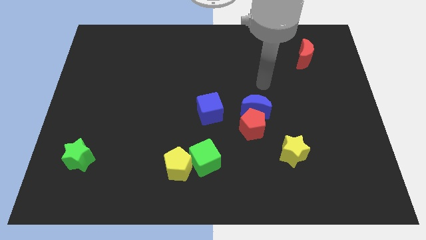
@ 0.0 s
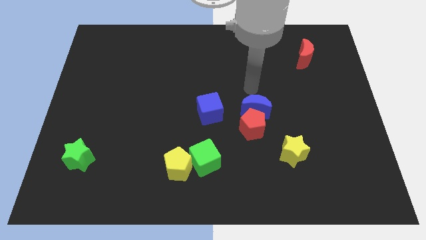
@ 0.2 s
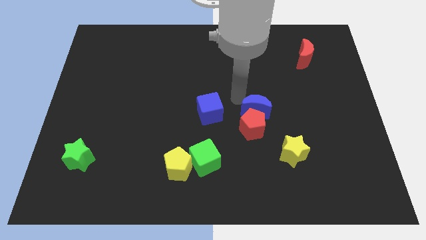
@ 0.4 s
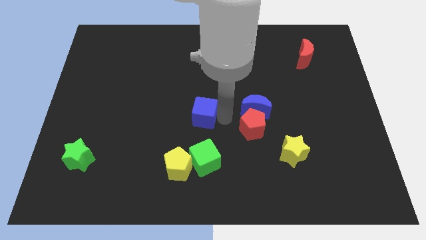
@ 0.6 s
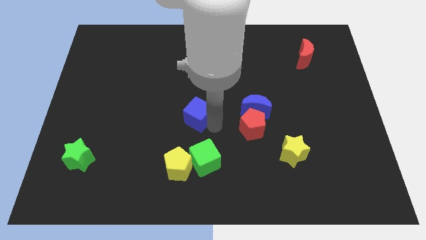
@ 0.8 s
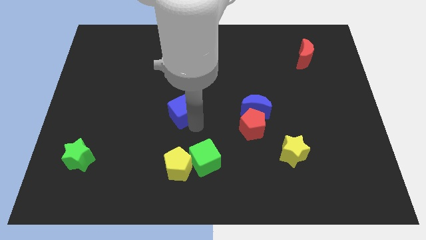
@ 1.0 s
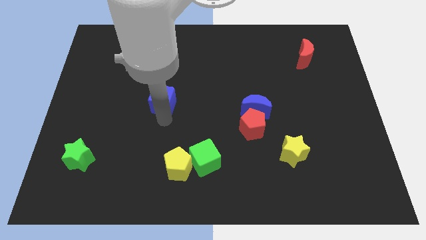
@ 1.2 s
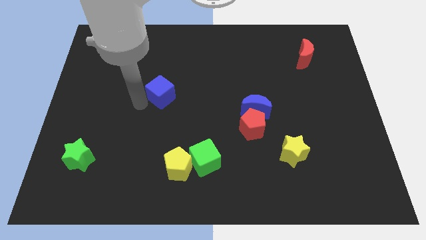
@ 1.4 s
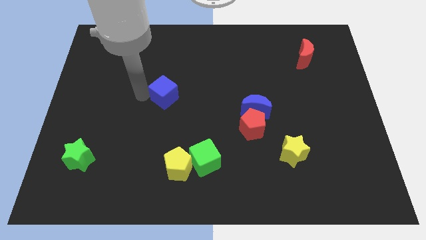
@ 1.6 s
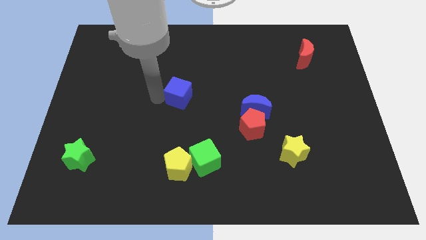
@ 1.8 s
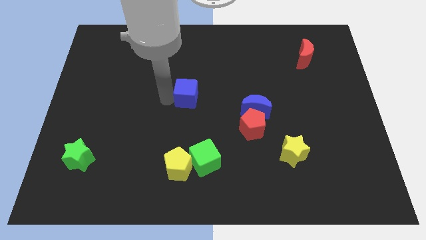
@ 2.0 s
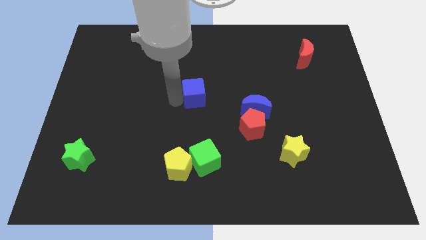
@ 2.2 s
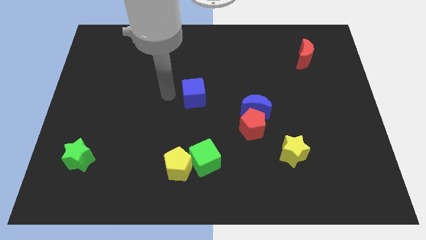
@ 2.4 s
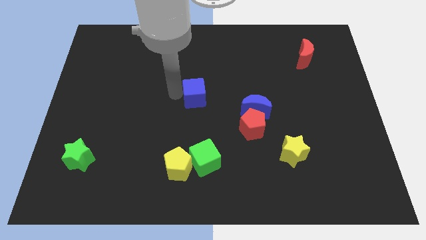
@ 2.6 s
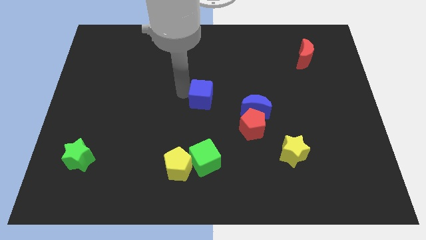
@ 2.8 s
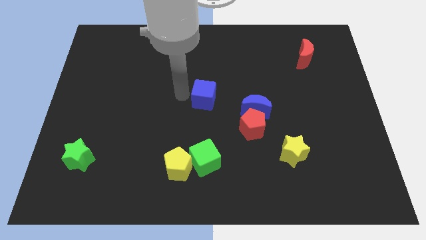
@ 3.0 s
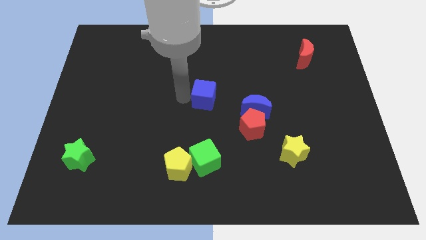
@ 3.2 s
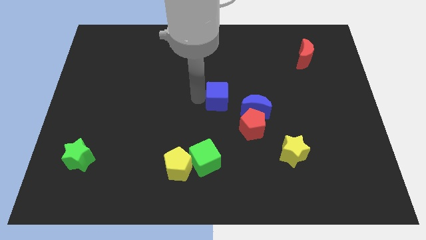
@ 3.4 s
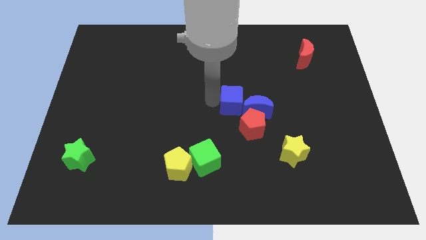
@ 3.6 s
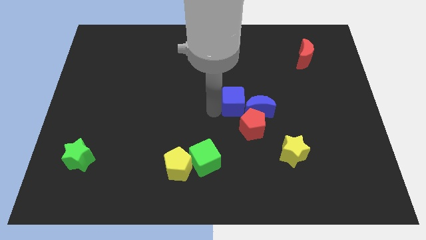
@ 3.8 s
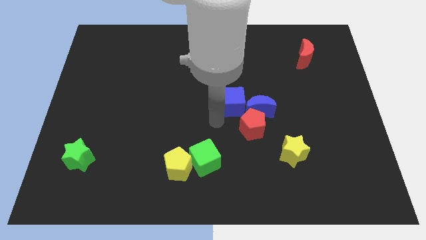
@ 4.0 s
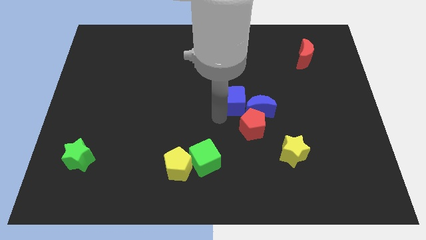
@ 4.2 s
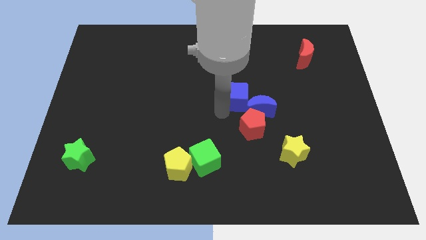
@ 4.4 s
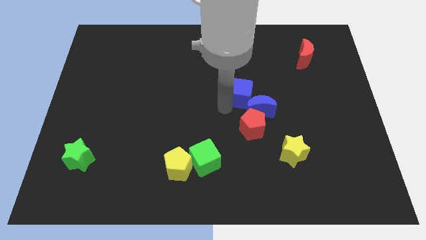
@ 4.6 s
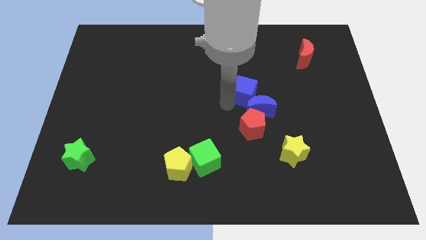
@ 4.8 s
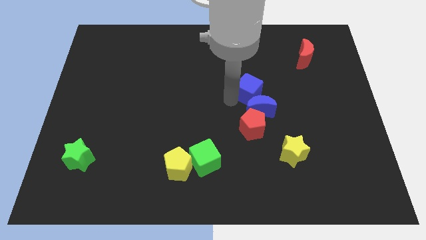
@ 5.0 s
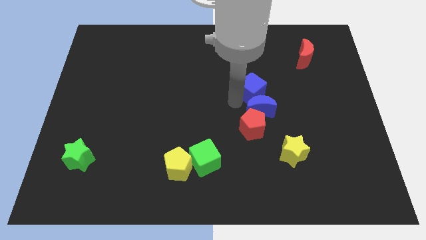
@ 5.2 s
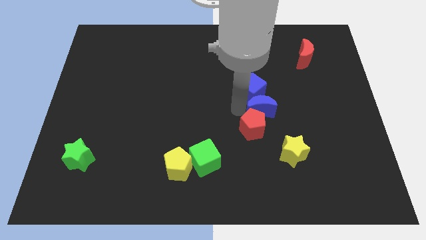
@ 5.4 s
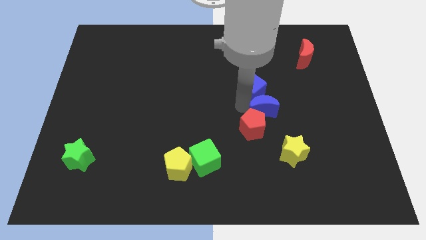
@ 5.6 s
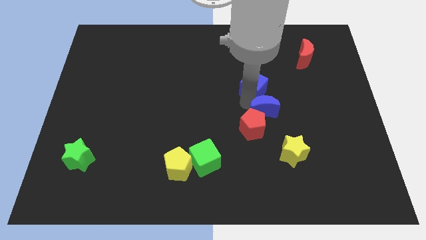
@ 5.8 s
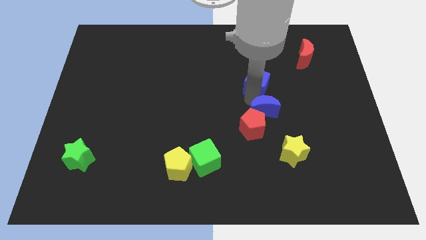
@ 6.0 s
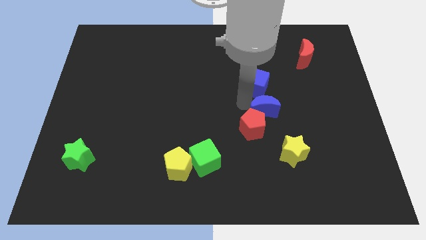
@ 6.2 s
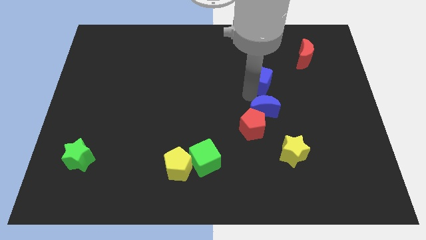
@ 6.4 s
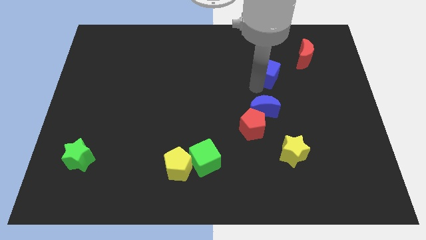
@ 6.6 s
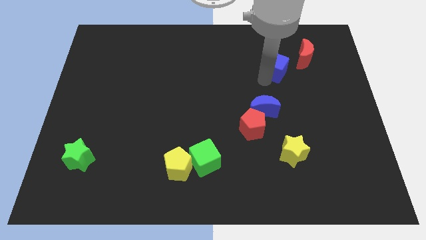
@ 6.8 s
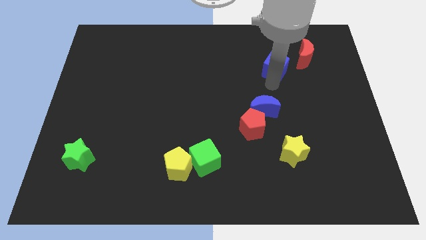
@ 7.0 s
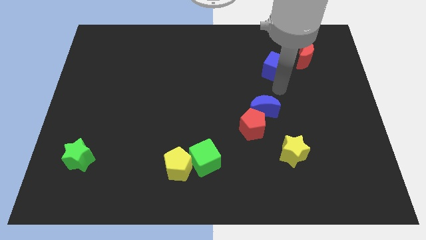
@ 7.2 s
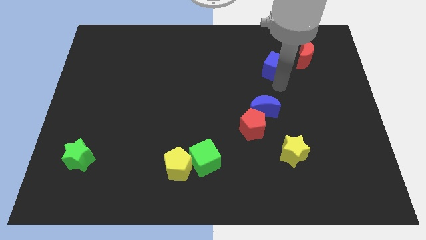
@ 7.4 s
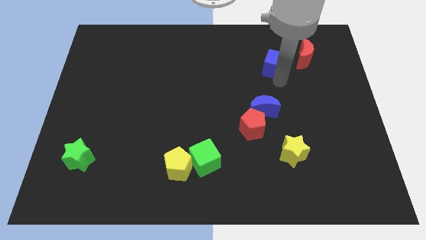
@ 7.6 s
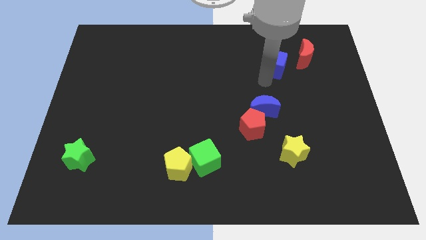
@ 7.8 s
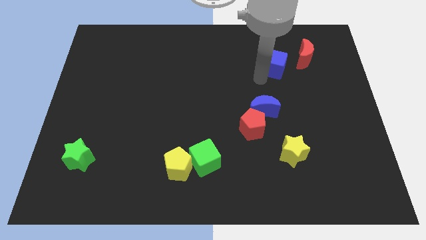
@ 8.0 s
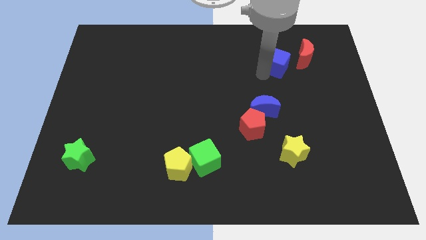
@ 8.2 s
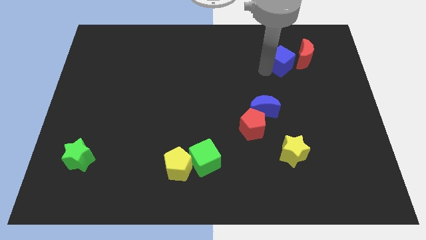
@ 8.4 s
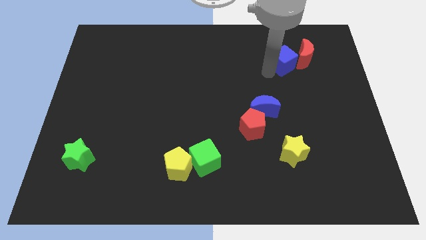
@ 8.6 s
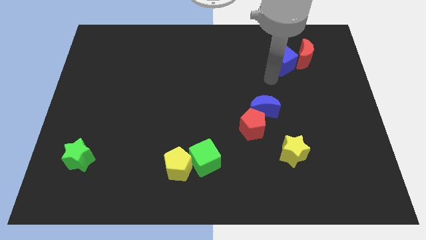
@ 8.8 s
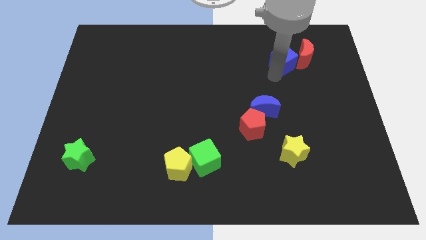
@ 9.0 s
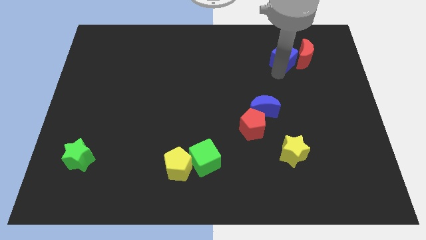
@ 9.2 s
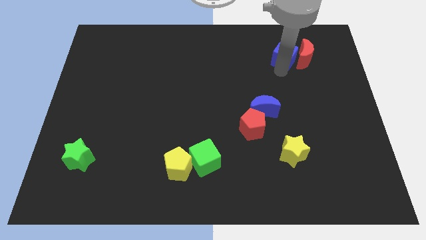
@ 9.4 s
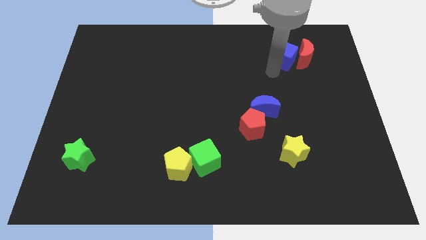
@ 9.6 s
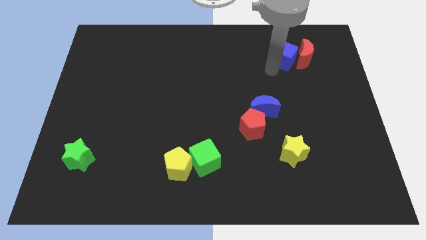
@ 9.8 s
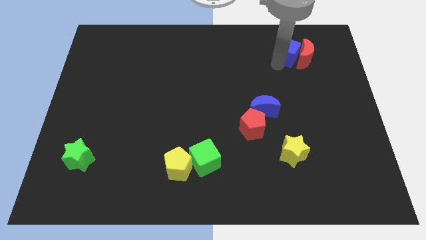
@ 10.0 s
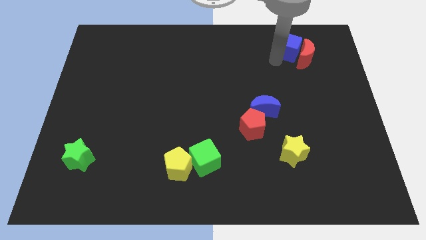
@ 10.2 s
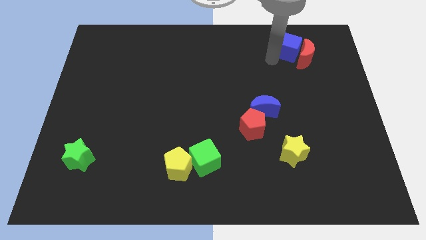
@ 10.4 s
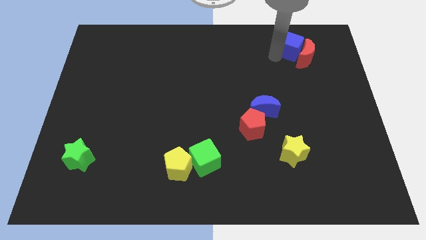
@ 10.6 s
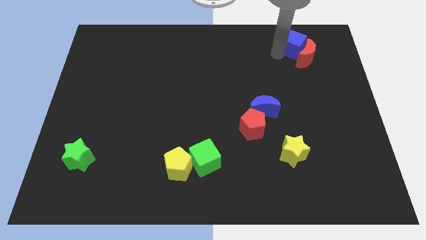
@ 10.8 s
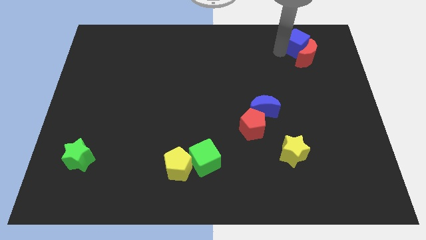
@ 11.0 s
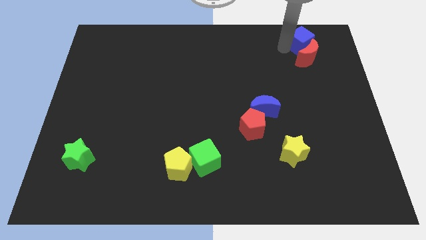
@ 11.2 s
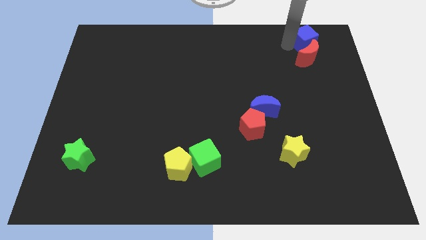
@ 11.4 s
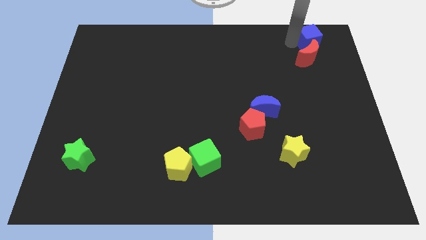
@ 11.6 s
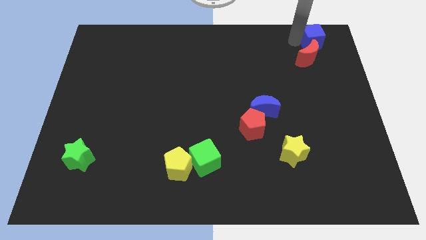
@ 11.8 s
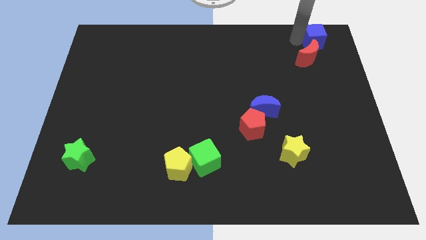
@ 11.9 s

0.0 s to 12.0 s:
move the blue cube to the top right of the board

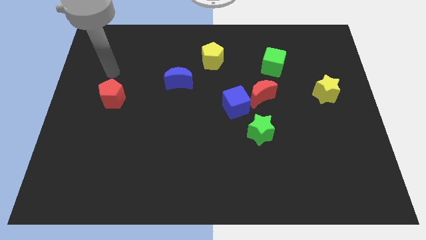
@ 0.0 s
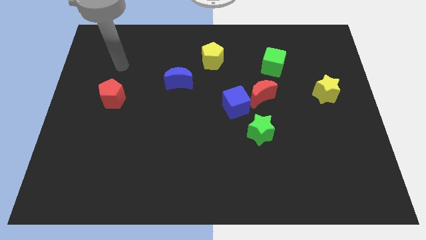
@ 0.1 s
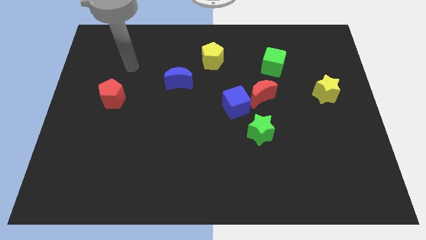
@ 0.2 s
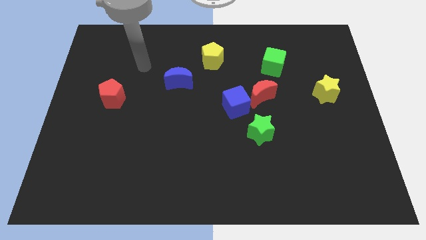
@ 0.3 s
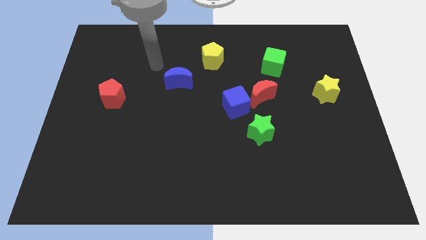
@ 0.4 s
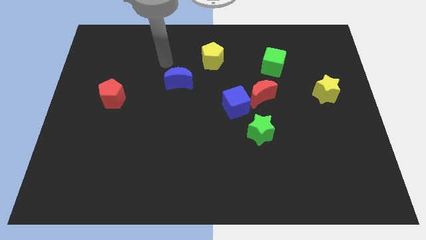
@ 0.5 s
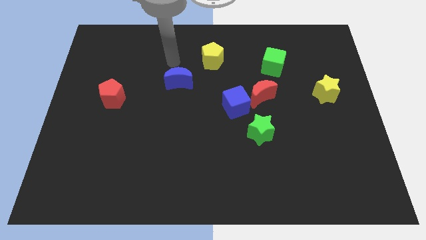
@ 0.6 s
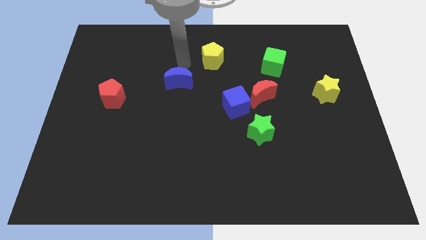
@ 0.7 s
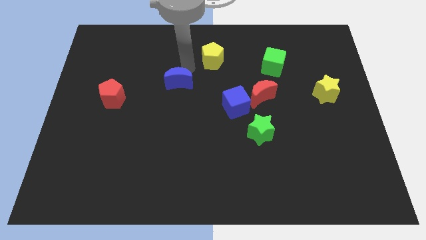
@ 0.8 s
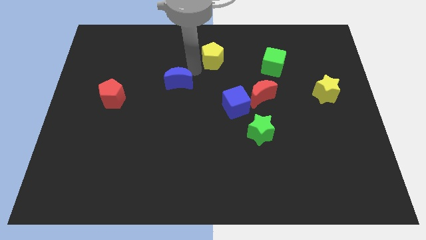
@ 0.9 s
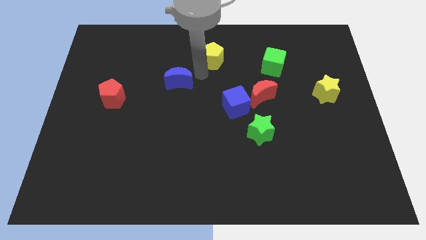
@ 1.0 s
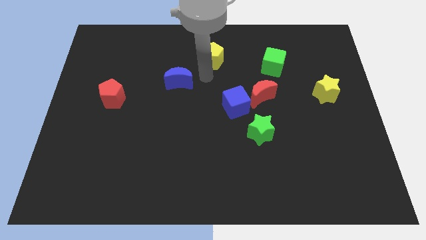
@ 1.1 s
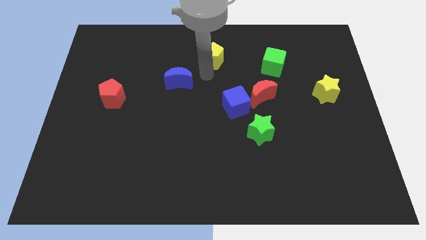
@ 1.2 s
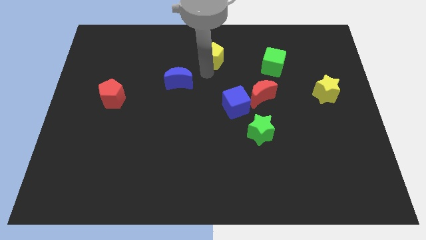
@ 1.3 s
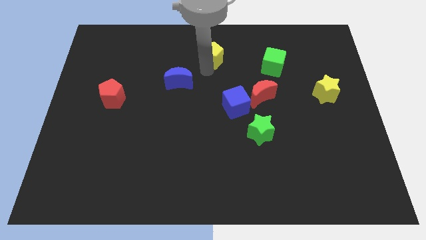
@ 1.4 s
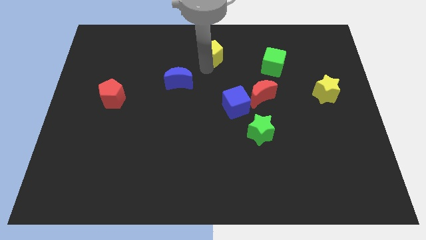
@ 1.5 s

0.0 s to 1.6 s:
put the yellow pentagon to the top
